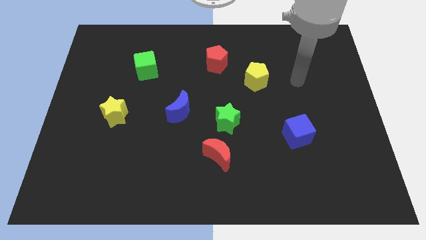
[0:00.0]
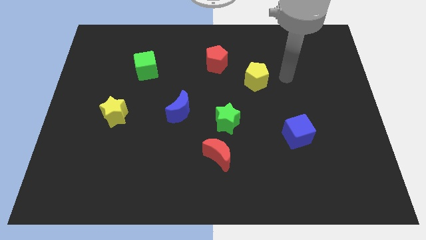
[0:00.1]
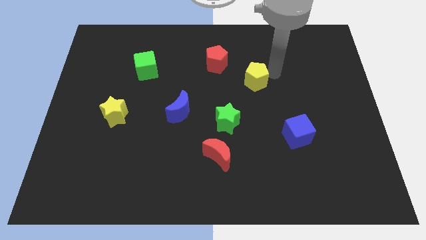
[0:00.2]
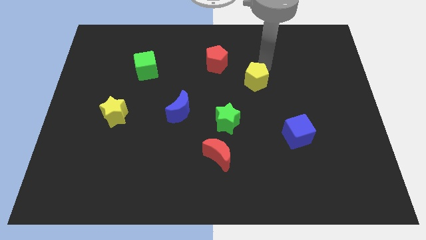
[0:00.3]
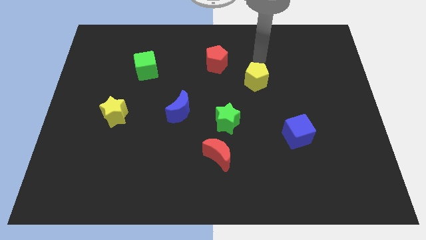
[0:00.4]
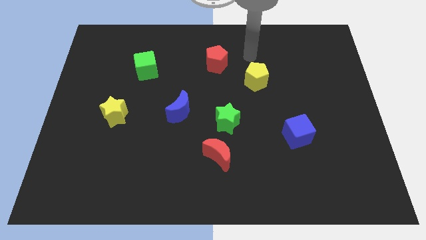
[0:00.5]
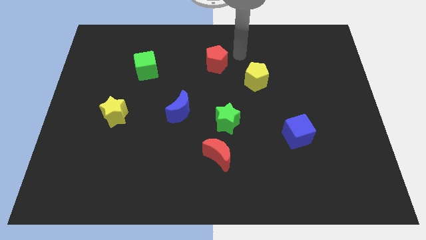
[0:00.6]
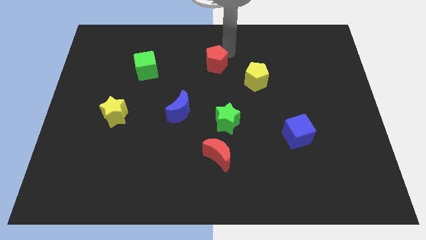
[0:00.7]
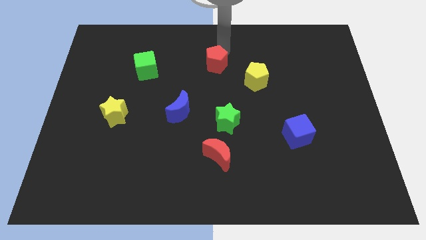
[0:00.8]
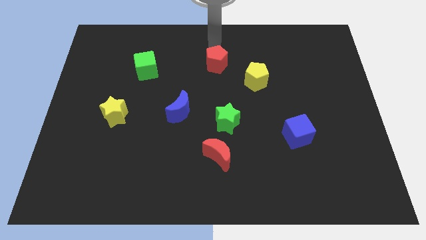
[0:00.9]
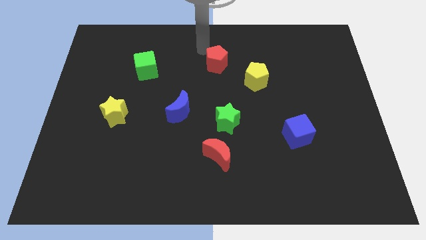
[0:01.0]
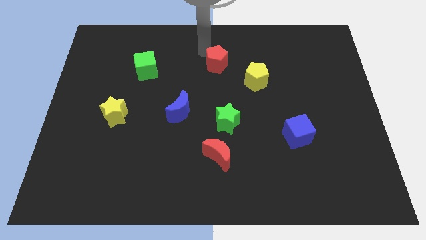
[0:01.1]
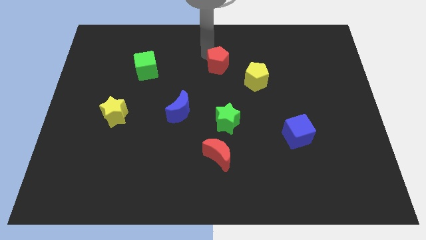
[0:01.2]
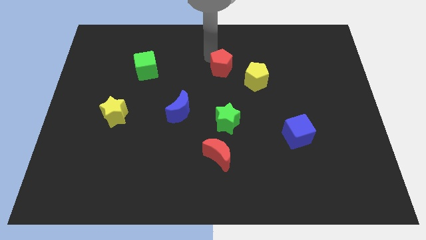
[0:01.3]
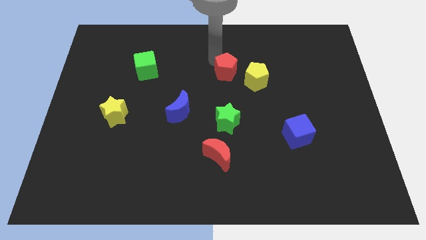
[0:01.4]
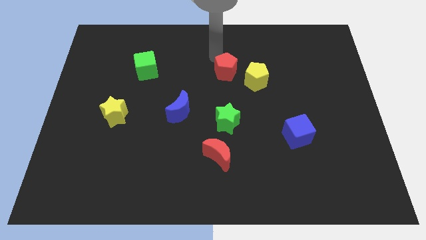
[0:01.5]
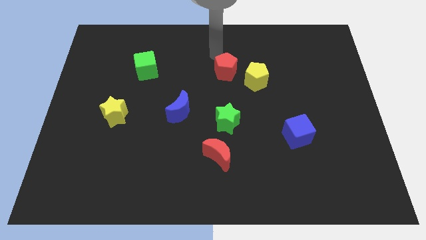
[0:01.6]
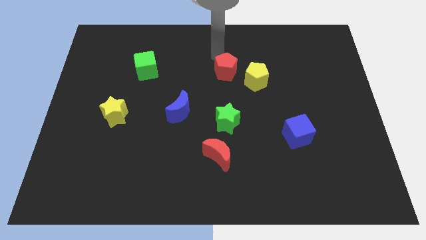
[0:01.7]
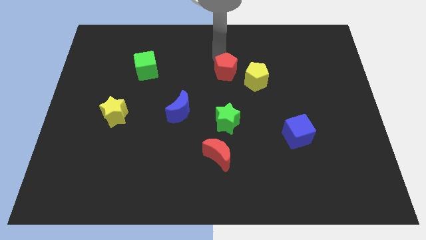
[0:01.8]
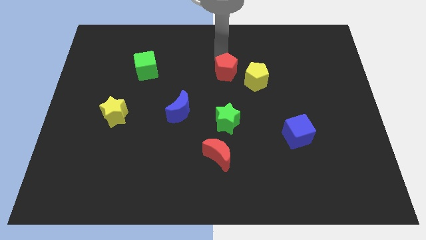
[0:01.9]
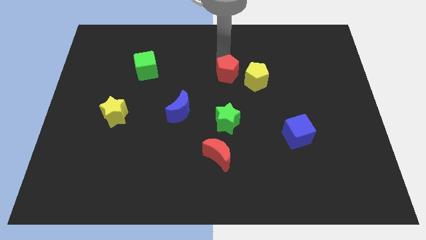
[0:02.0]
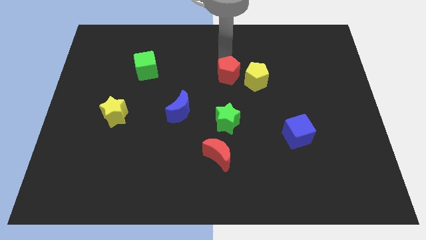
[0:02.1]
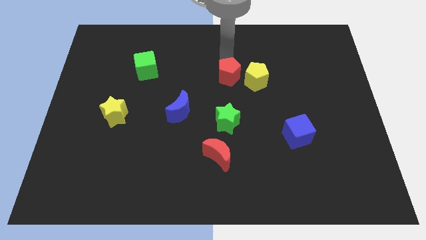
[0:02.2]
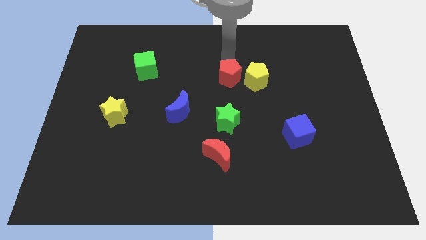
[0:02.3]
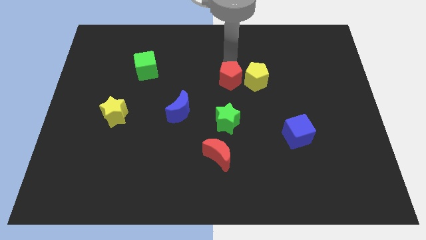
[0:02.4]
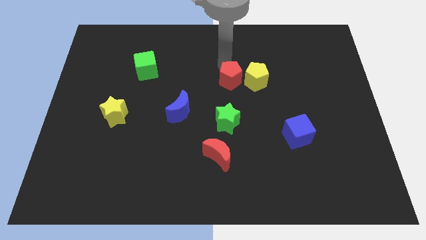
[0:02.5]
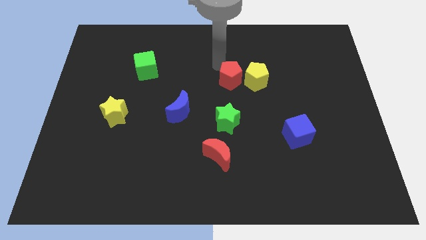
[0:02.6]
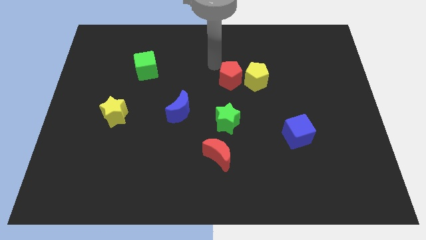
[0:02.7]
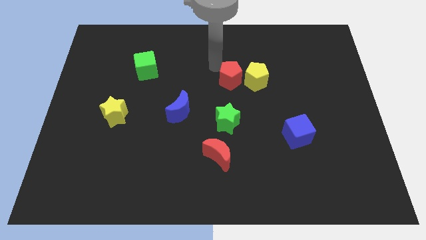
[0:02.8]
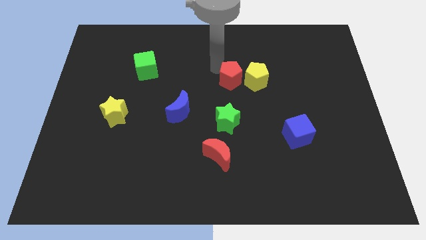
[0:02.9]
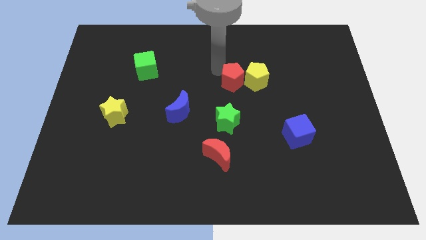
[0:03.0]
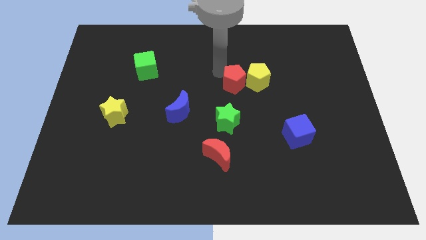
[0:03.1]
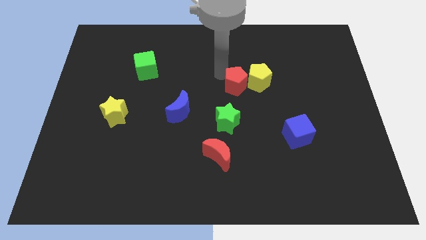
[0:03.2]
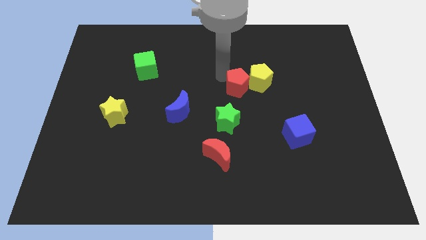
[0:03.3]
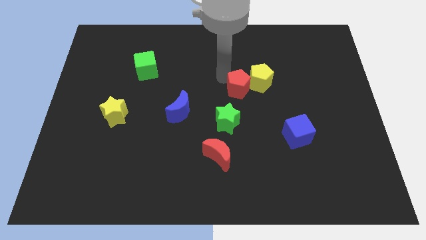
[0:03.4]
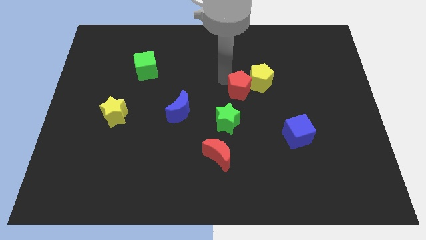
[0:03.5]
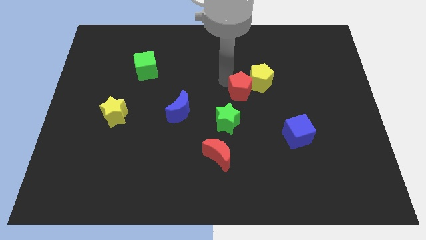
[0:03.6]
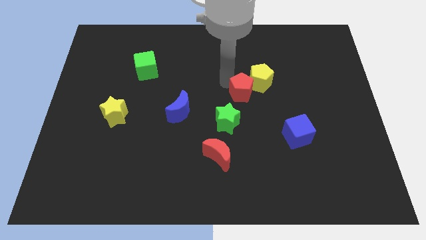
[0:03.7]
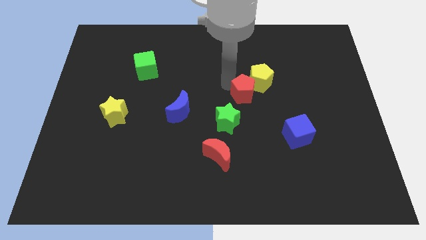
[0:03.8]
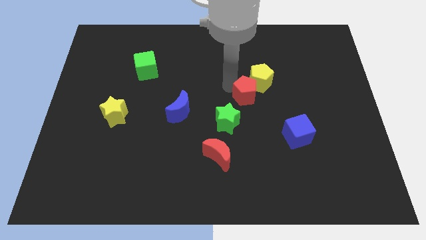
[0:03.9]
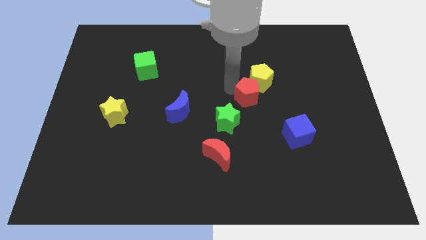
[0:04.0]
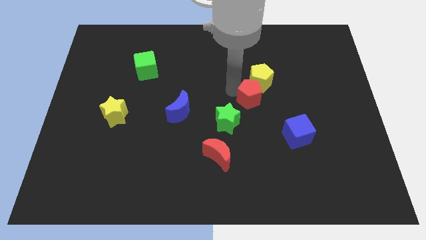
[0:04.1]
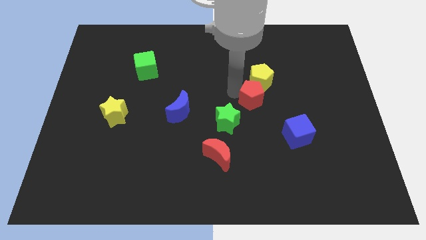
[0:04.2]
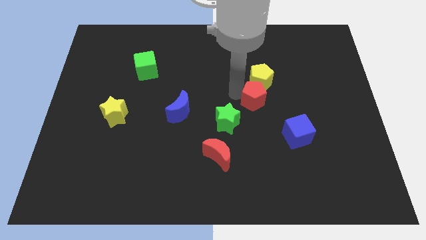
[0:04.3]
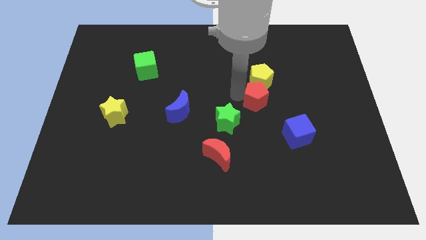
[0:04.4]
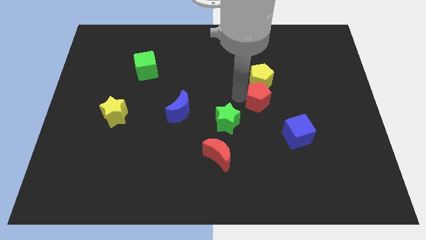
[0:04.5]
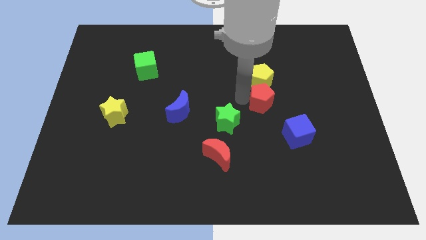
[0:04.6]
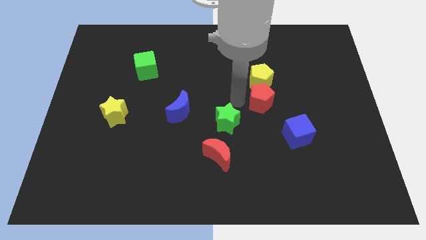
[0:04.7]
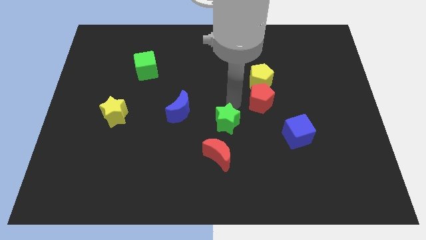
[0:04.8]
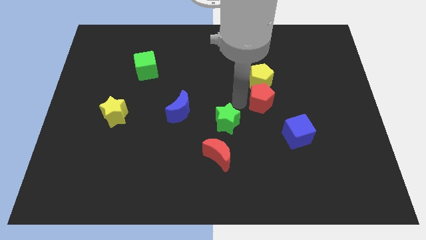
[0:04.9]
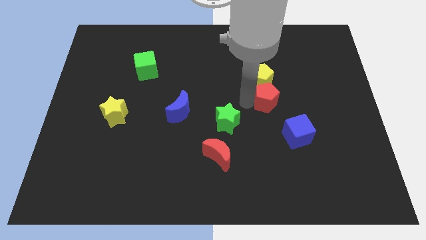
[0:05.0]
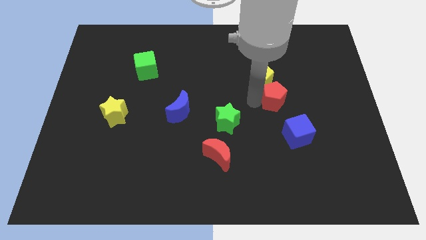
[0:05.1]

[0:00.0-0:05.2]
slide the red pentagon above the blue cube

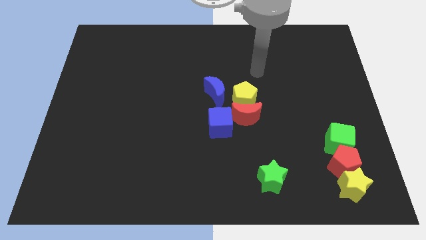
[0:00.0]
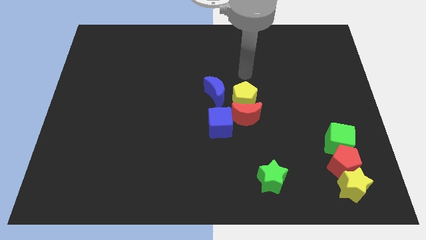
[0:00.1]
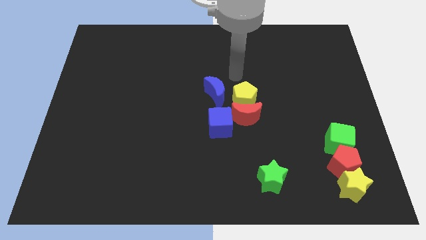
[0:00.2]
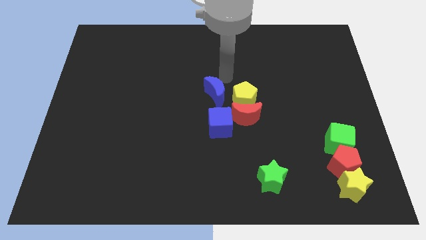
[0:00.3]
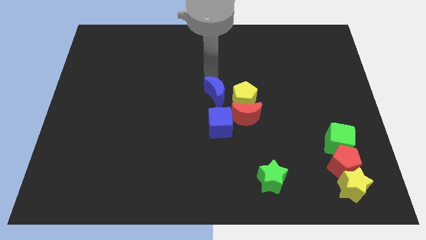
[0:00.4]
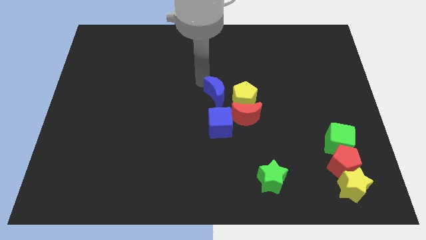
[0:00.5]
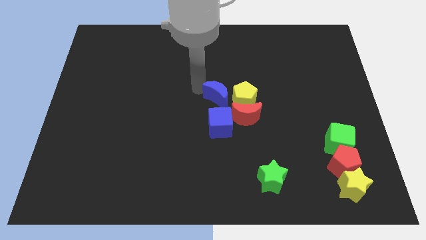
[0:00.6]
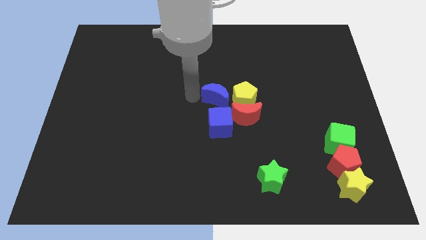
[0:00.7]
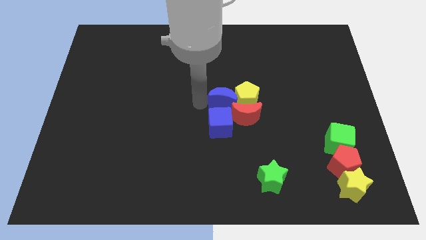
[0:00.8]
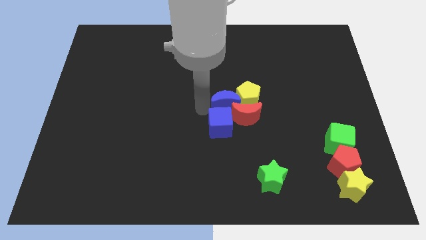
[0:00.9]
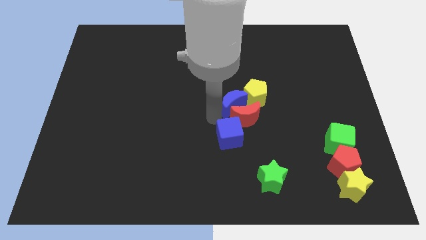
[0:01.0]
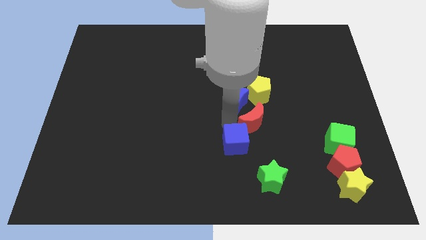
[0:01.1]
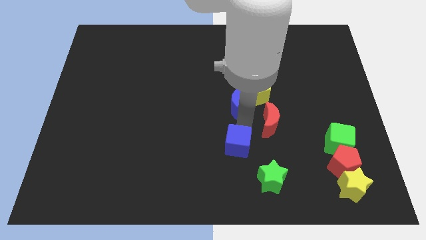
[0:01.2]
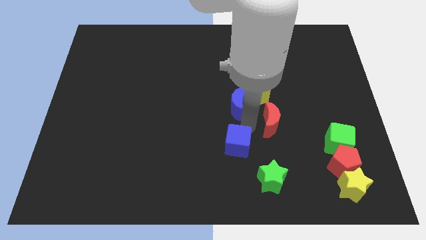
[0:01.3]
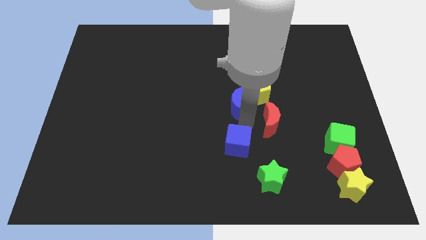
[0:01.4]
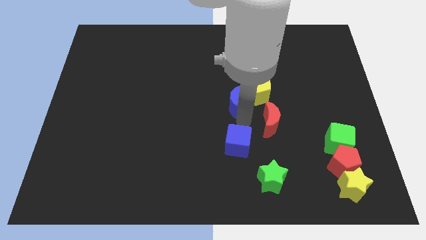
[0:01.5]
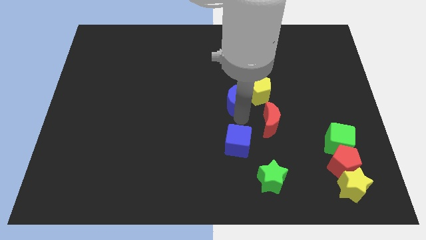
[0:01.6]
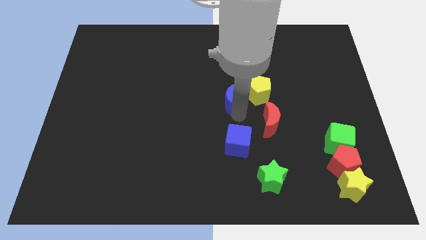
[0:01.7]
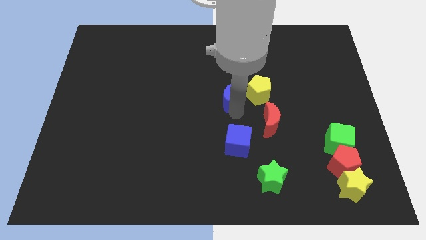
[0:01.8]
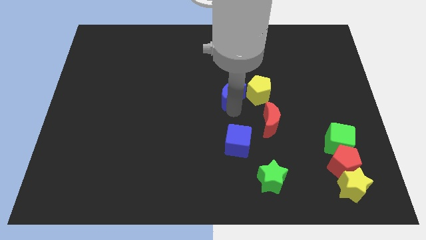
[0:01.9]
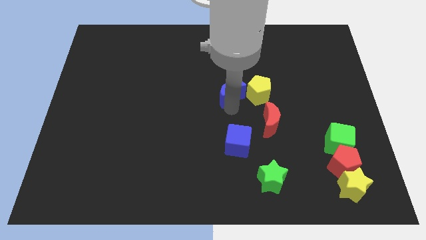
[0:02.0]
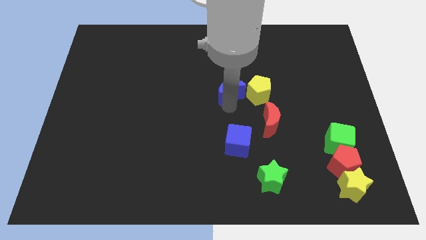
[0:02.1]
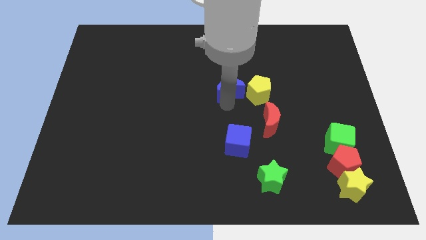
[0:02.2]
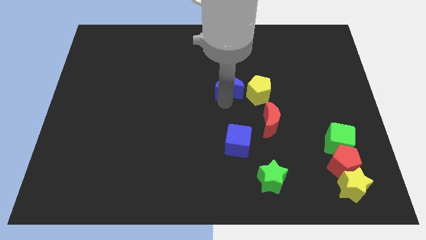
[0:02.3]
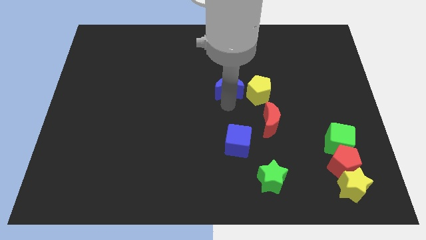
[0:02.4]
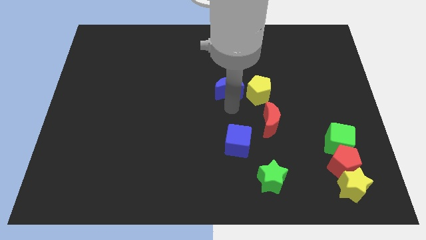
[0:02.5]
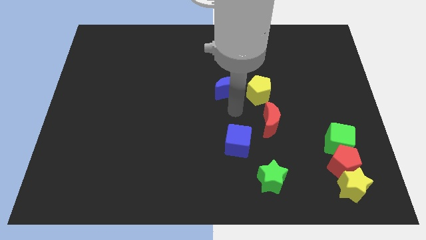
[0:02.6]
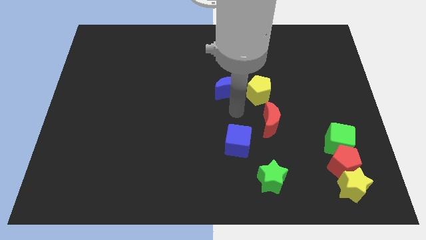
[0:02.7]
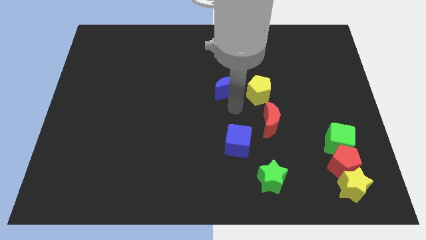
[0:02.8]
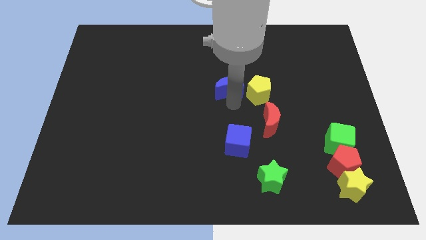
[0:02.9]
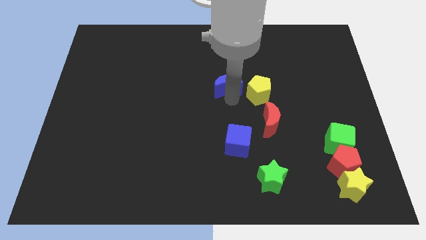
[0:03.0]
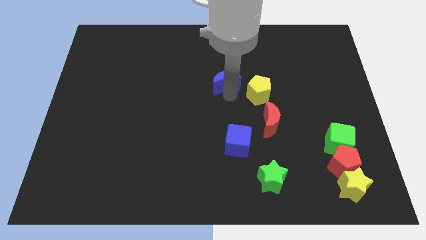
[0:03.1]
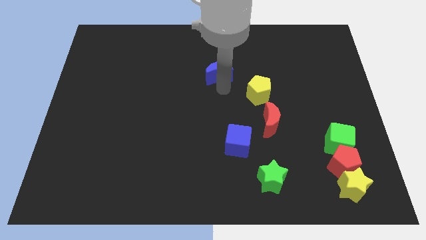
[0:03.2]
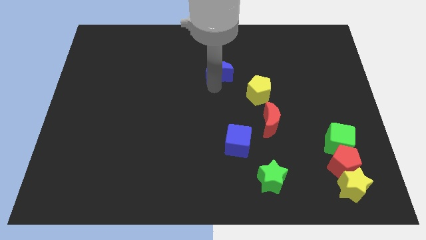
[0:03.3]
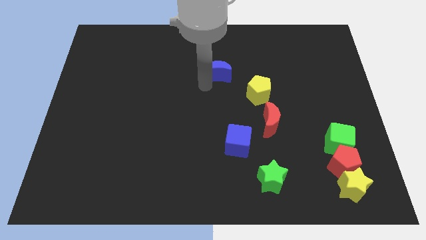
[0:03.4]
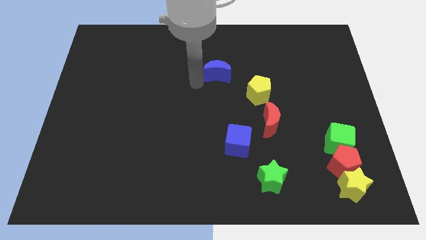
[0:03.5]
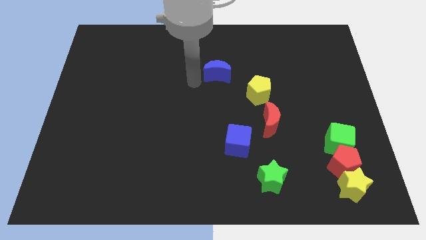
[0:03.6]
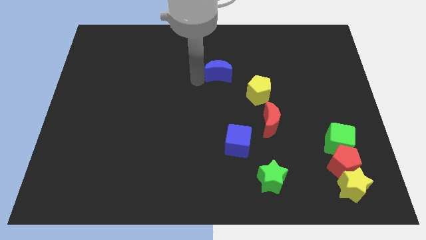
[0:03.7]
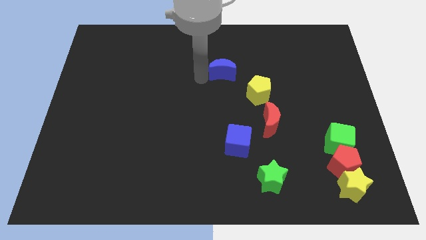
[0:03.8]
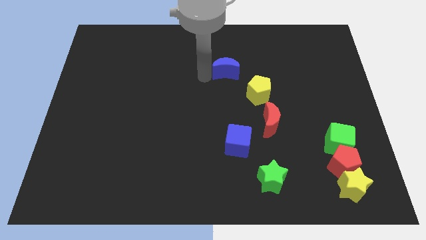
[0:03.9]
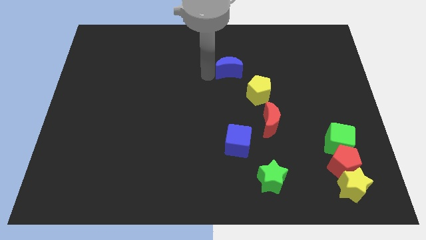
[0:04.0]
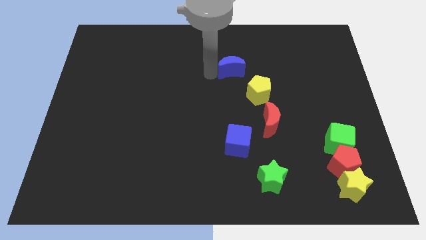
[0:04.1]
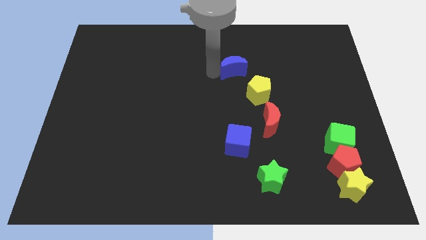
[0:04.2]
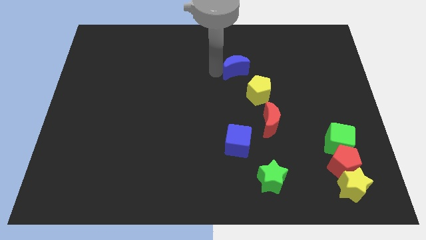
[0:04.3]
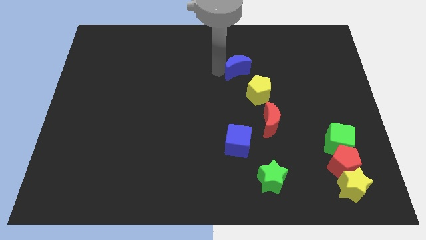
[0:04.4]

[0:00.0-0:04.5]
move the blue moon to the top of the yellow pentagon
